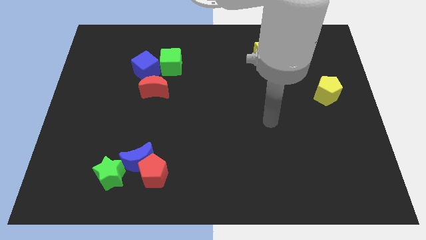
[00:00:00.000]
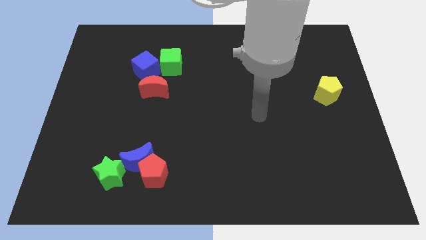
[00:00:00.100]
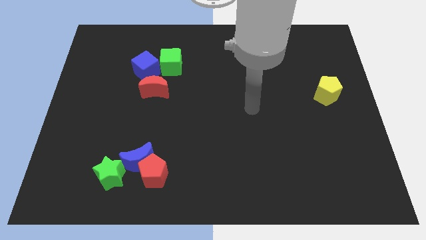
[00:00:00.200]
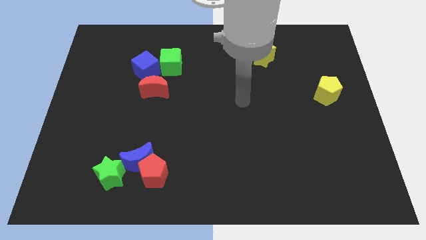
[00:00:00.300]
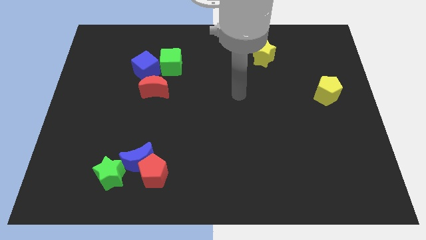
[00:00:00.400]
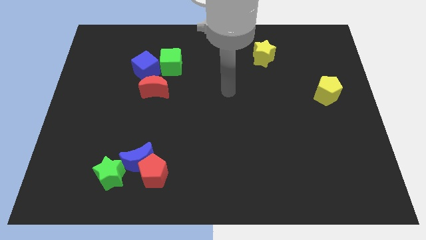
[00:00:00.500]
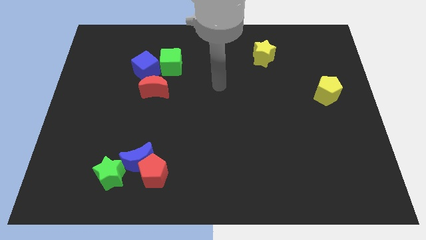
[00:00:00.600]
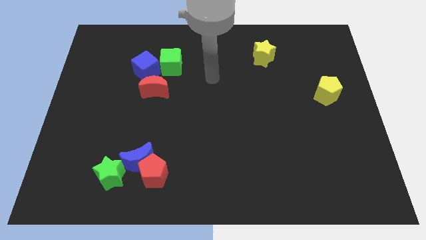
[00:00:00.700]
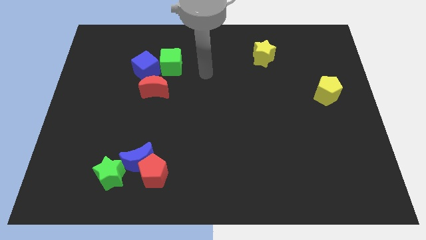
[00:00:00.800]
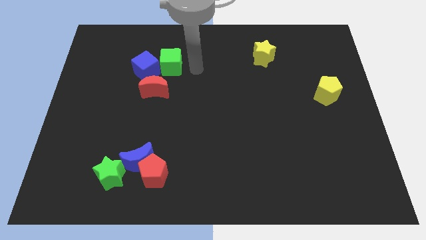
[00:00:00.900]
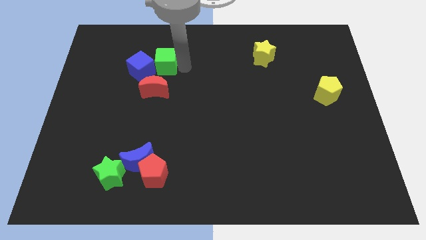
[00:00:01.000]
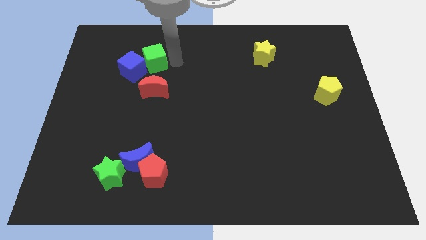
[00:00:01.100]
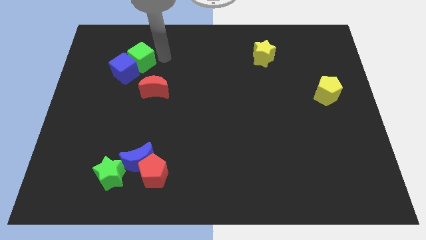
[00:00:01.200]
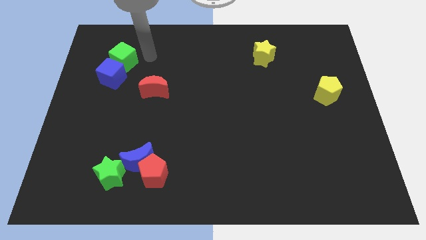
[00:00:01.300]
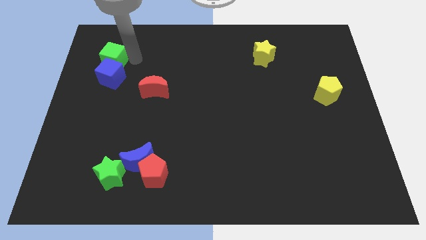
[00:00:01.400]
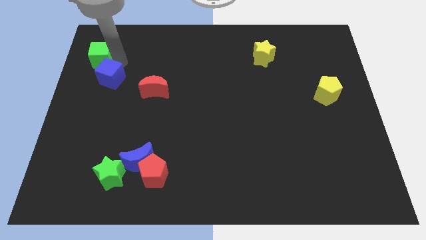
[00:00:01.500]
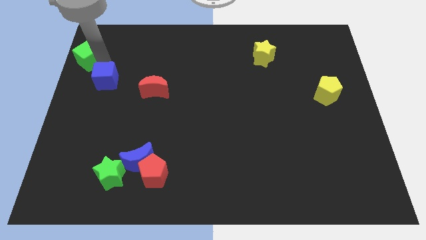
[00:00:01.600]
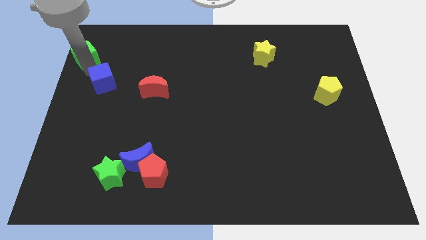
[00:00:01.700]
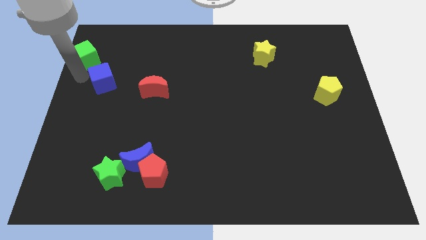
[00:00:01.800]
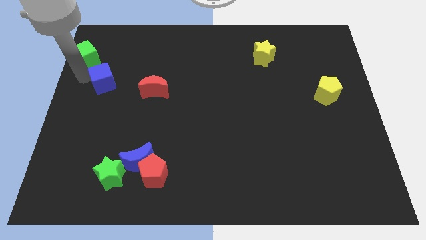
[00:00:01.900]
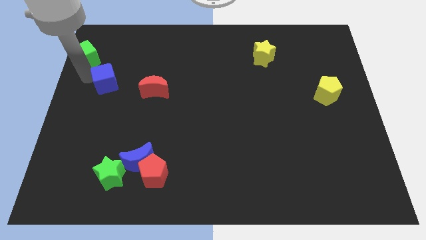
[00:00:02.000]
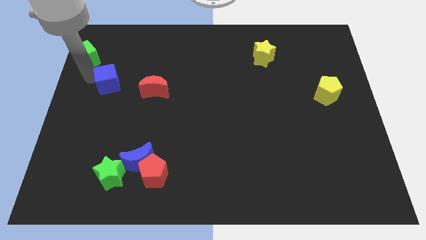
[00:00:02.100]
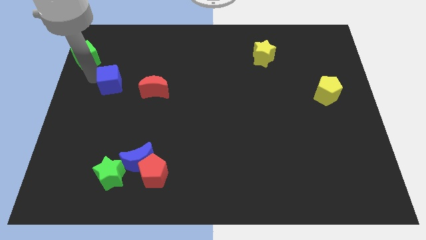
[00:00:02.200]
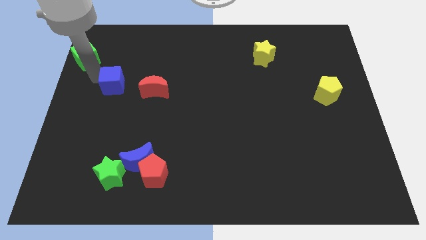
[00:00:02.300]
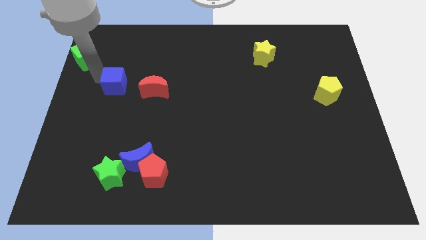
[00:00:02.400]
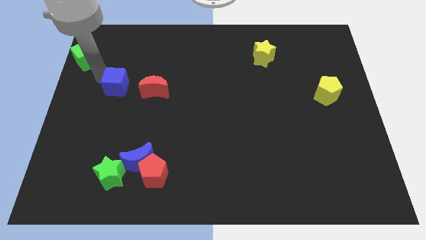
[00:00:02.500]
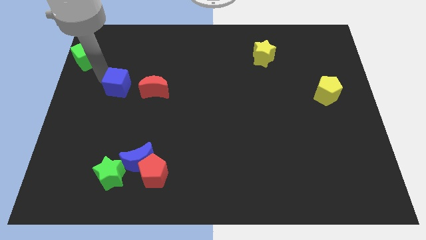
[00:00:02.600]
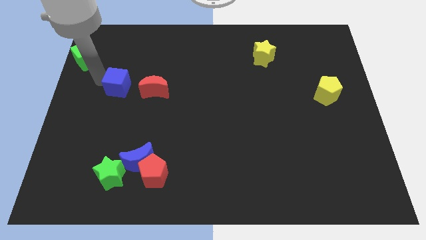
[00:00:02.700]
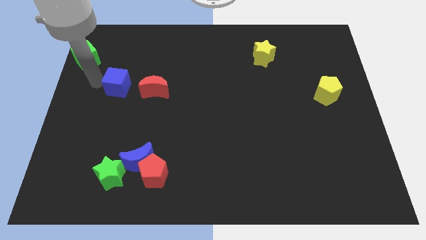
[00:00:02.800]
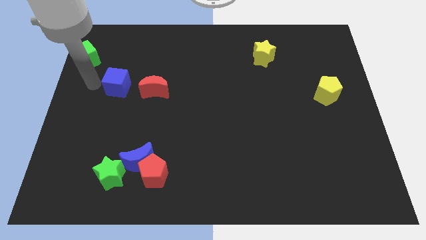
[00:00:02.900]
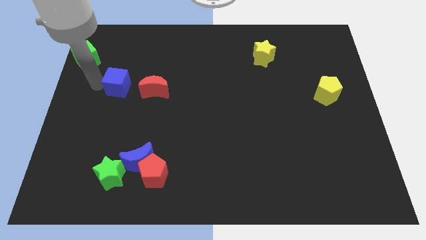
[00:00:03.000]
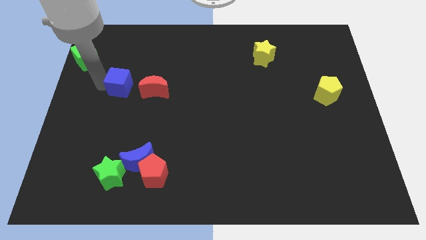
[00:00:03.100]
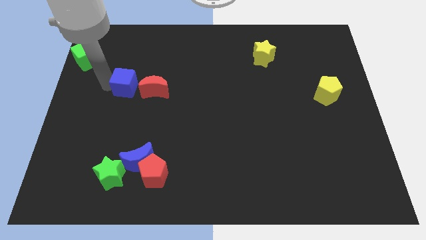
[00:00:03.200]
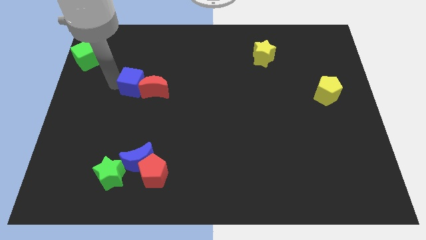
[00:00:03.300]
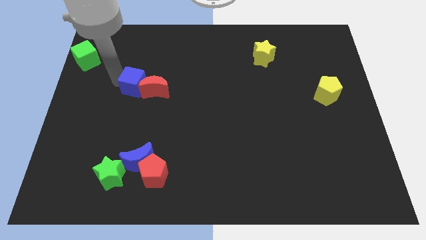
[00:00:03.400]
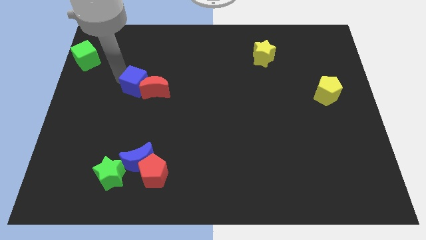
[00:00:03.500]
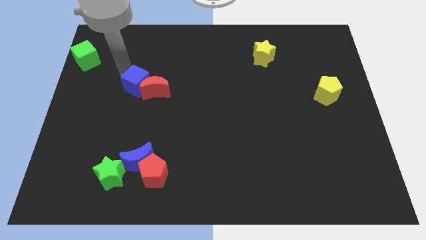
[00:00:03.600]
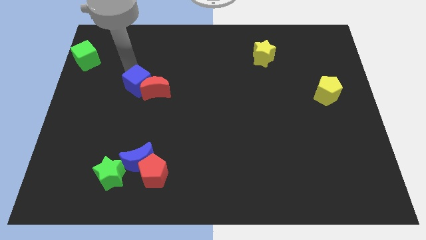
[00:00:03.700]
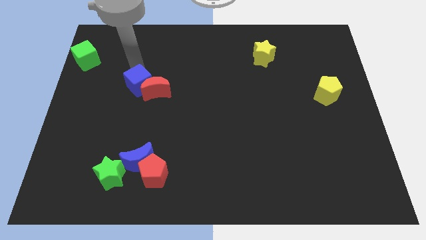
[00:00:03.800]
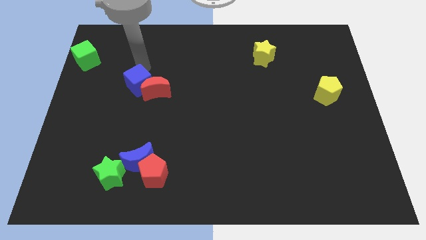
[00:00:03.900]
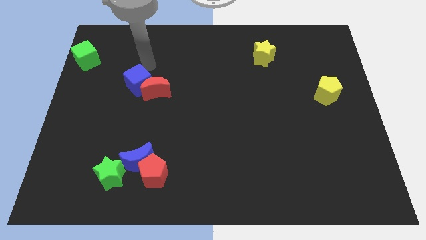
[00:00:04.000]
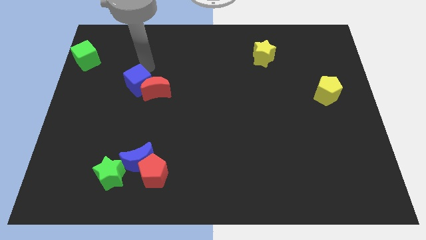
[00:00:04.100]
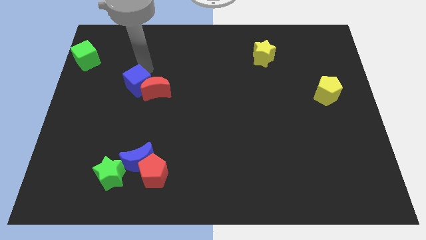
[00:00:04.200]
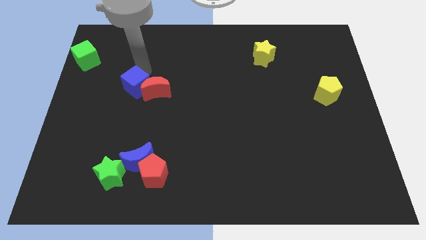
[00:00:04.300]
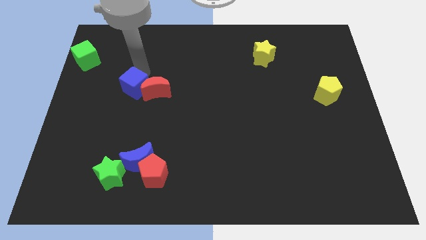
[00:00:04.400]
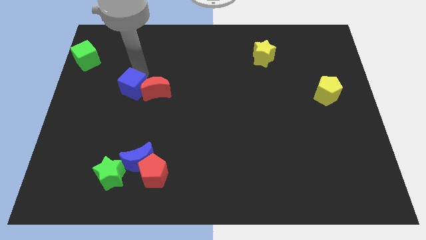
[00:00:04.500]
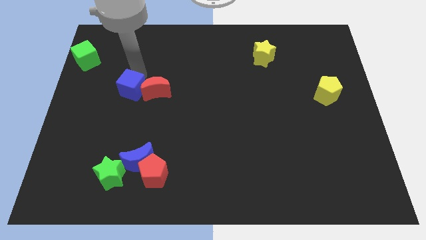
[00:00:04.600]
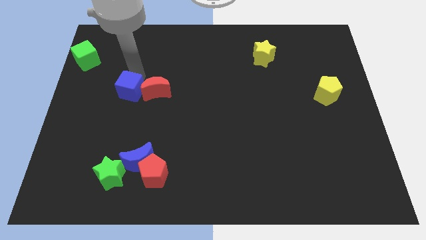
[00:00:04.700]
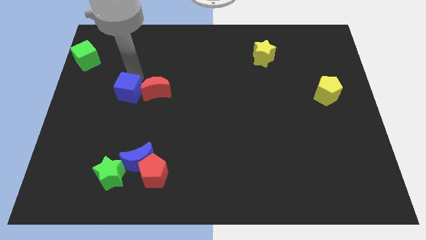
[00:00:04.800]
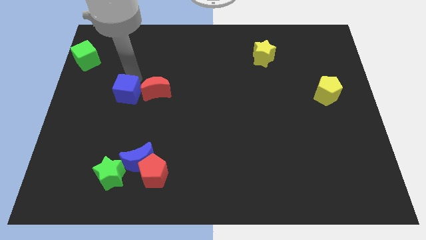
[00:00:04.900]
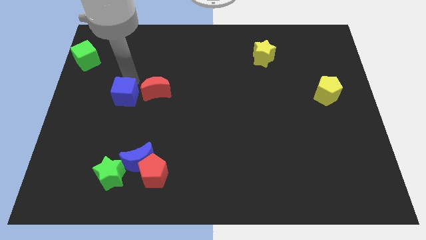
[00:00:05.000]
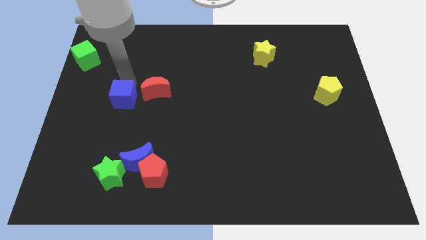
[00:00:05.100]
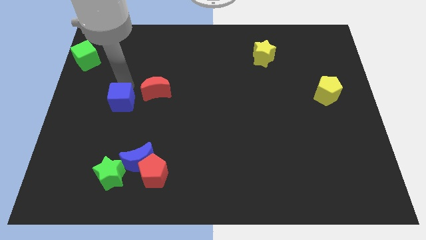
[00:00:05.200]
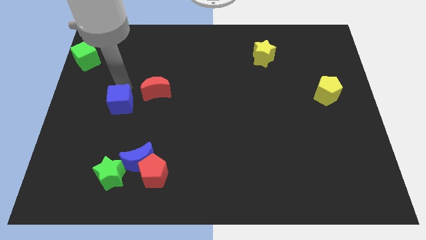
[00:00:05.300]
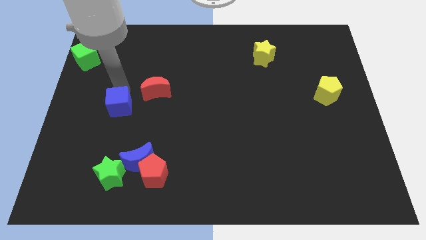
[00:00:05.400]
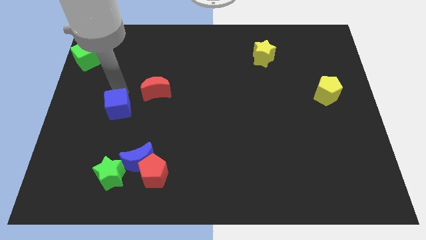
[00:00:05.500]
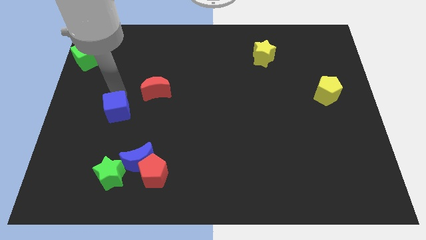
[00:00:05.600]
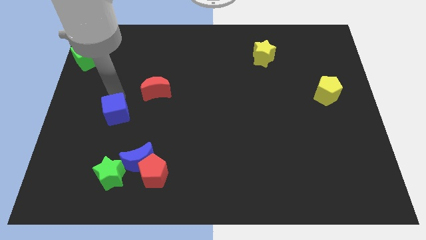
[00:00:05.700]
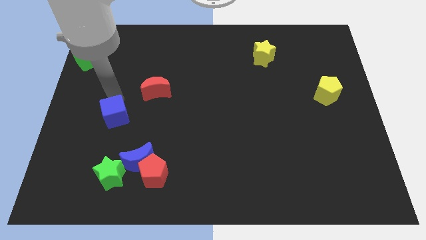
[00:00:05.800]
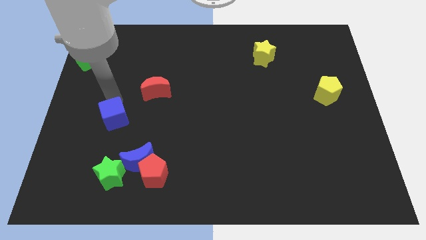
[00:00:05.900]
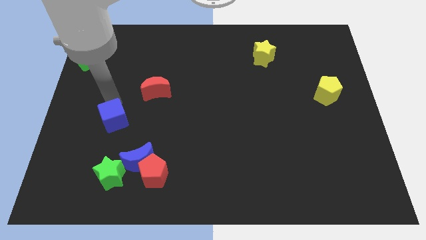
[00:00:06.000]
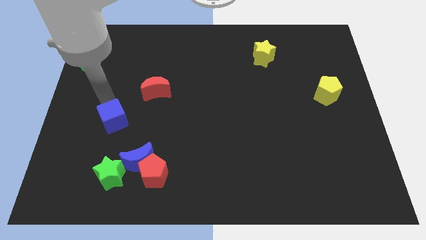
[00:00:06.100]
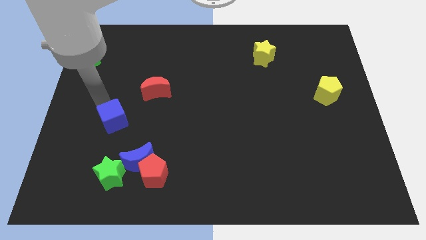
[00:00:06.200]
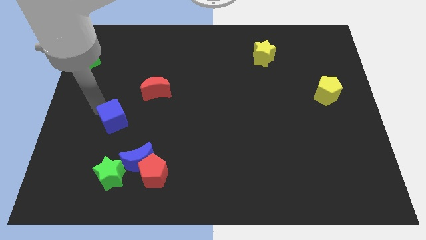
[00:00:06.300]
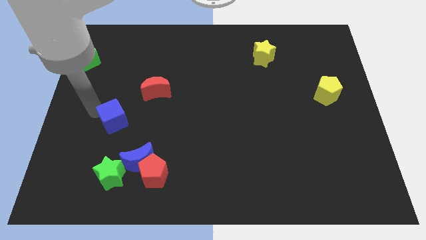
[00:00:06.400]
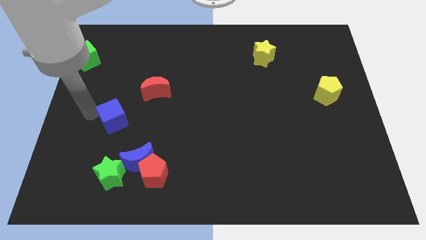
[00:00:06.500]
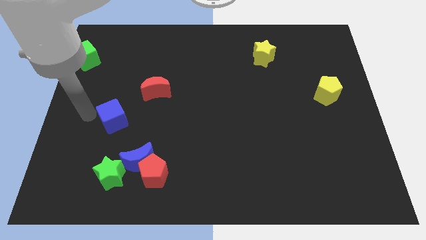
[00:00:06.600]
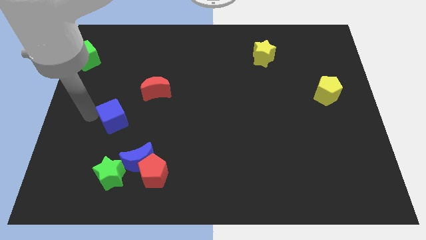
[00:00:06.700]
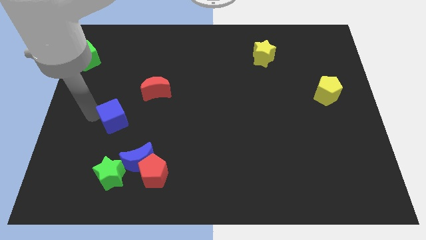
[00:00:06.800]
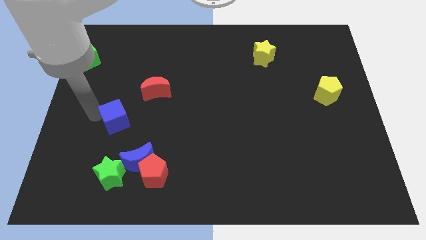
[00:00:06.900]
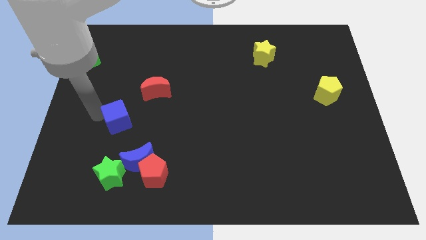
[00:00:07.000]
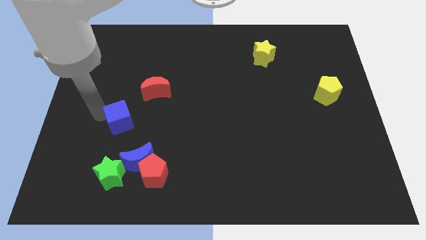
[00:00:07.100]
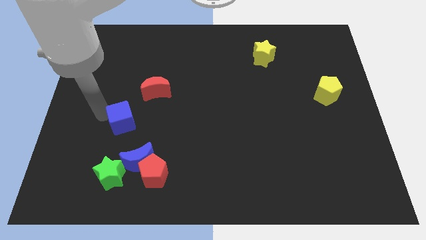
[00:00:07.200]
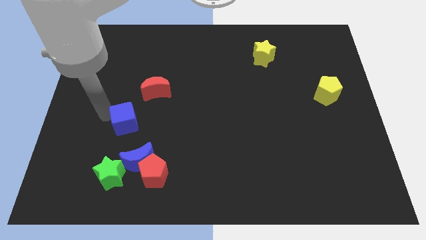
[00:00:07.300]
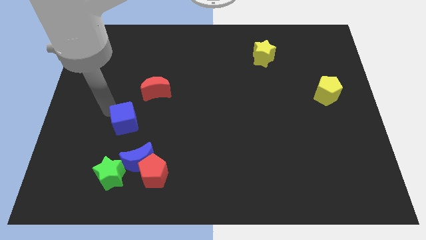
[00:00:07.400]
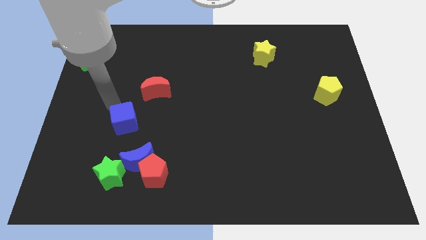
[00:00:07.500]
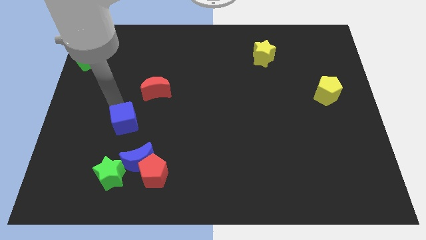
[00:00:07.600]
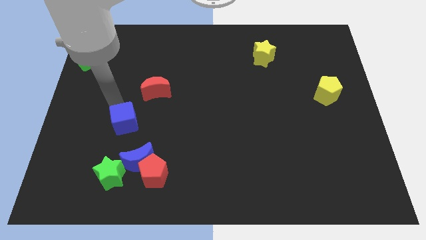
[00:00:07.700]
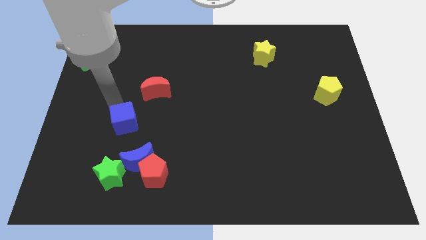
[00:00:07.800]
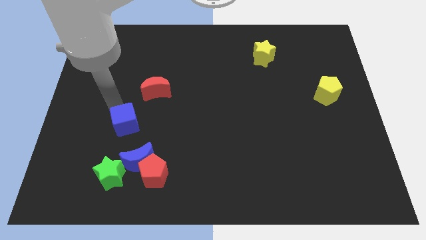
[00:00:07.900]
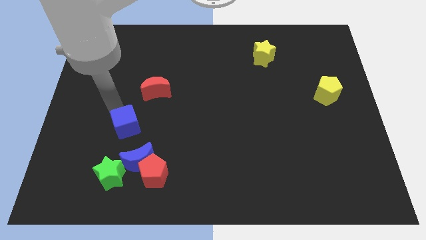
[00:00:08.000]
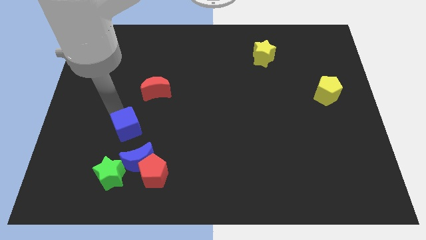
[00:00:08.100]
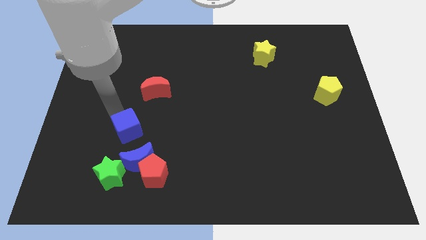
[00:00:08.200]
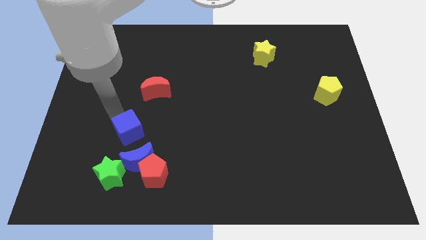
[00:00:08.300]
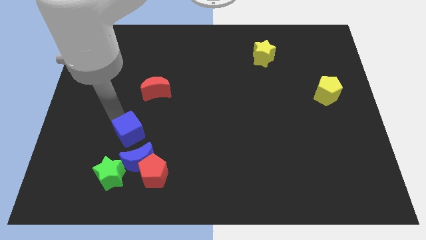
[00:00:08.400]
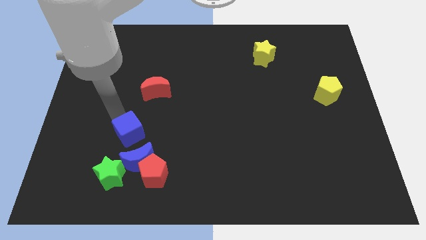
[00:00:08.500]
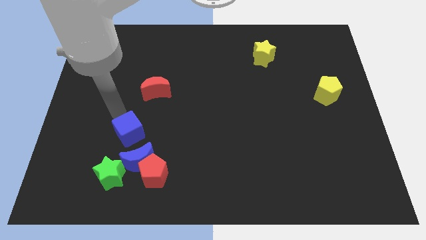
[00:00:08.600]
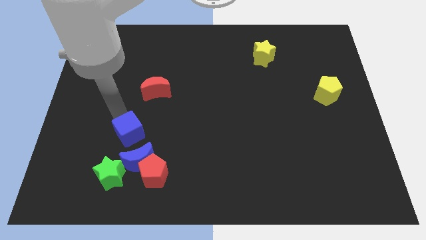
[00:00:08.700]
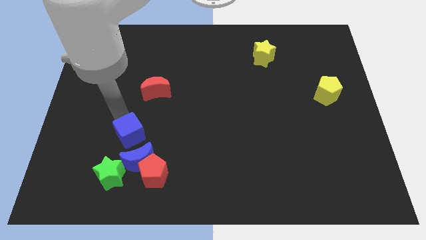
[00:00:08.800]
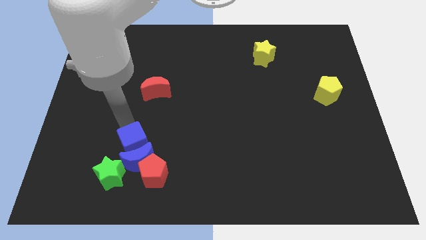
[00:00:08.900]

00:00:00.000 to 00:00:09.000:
push the blue cube close to the blue moon
